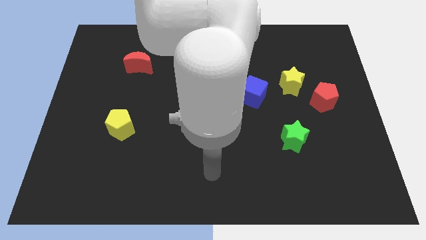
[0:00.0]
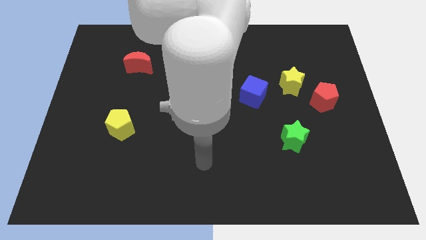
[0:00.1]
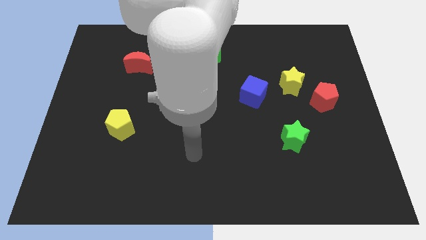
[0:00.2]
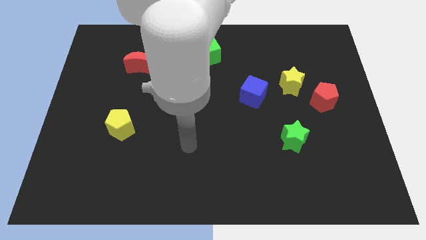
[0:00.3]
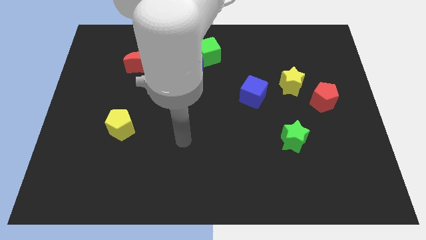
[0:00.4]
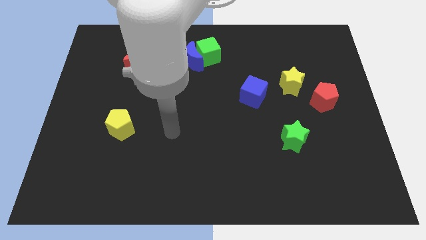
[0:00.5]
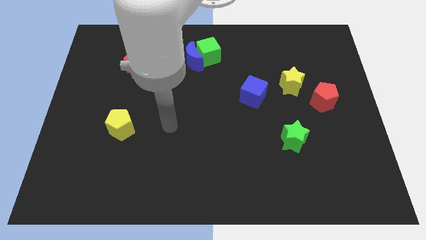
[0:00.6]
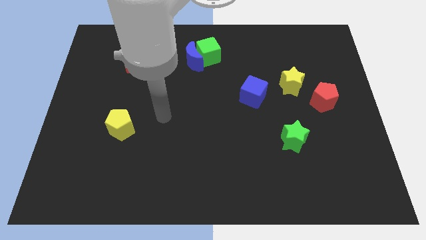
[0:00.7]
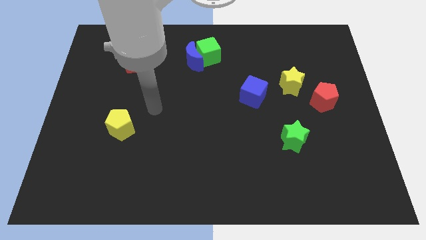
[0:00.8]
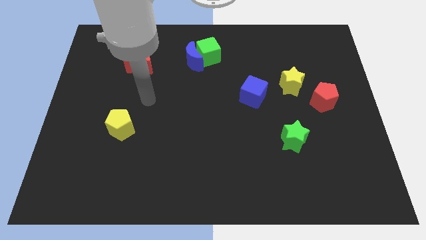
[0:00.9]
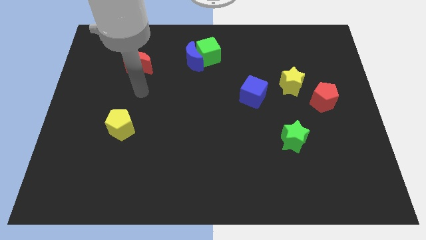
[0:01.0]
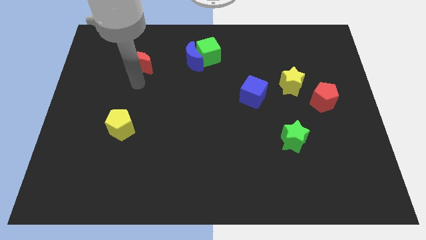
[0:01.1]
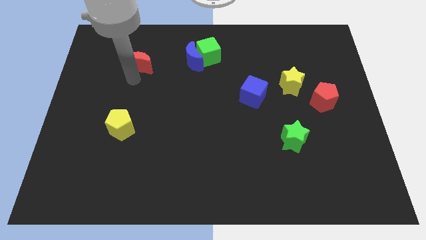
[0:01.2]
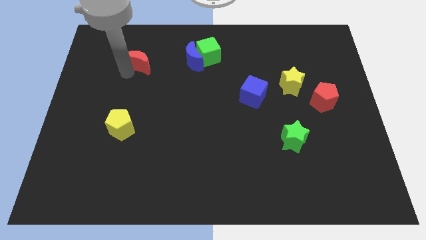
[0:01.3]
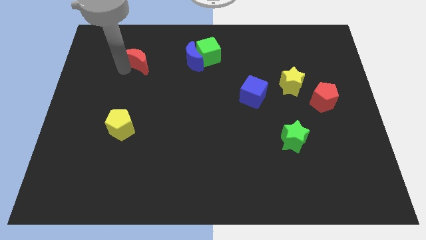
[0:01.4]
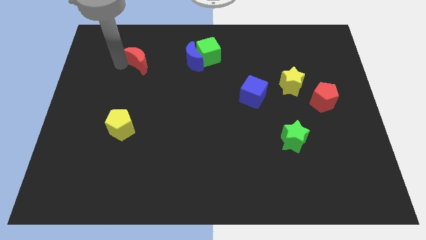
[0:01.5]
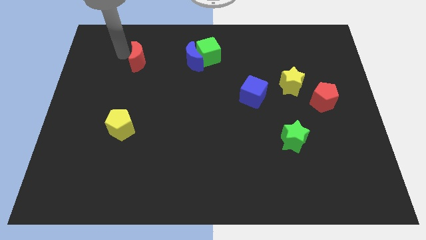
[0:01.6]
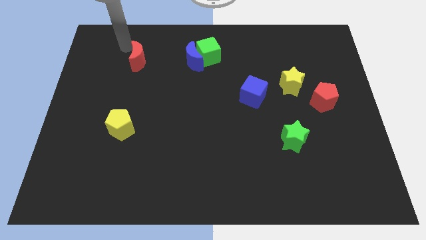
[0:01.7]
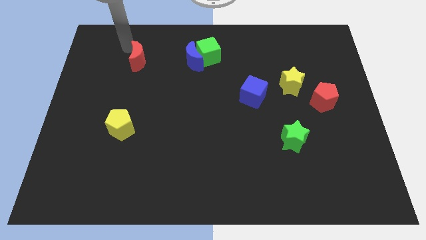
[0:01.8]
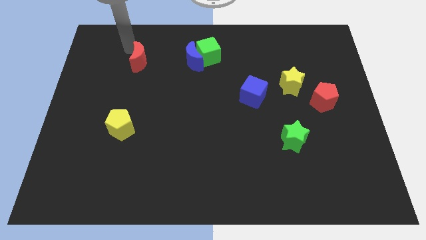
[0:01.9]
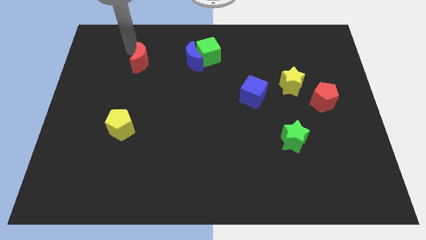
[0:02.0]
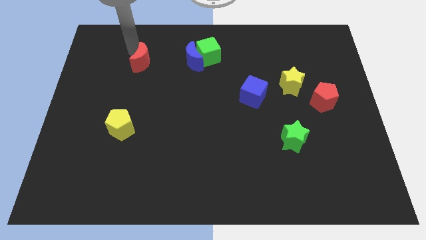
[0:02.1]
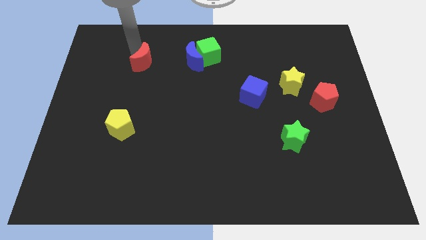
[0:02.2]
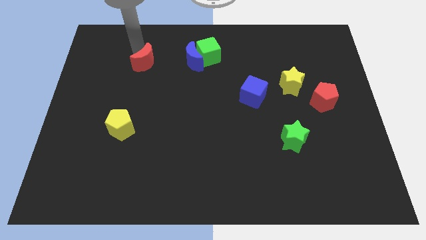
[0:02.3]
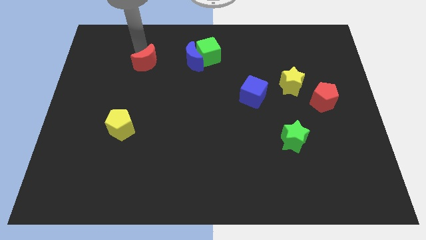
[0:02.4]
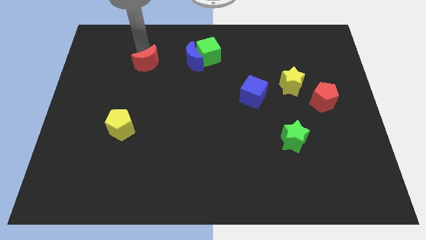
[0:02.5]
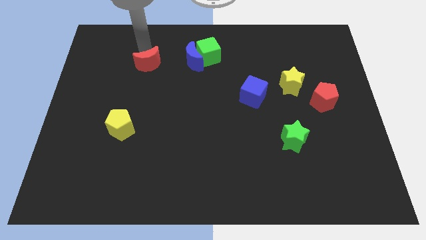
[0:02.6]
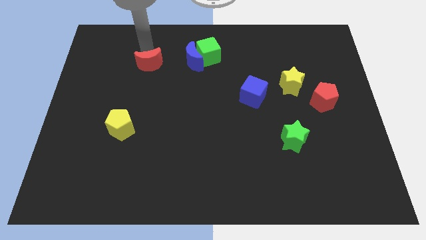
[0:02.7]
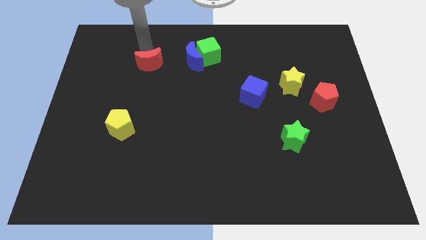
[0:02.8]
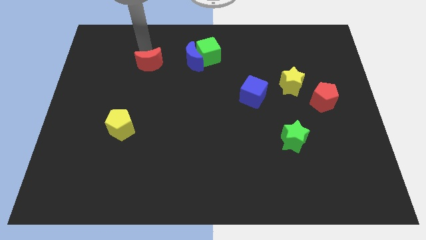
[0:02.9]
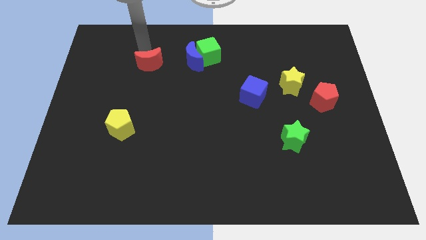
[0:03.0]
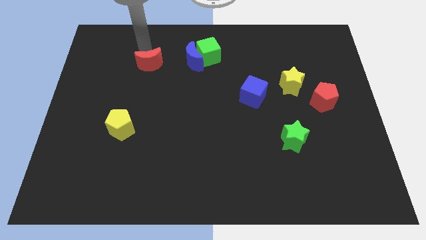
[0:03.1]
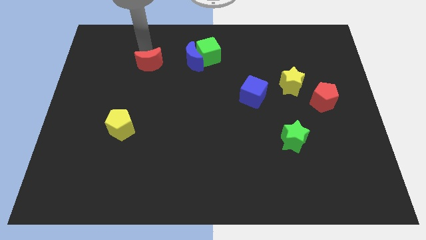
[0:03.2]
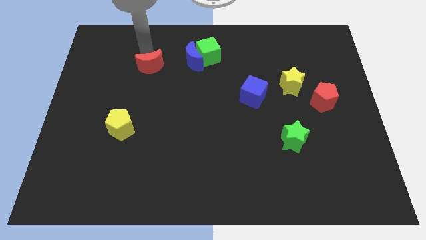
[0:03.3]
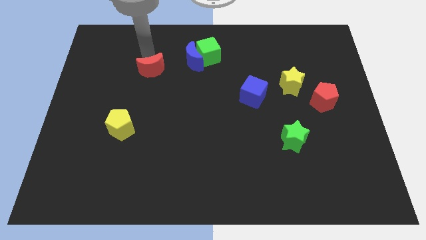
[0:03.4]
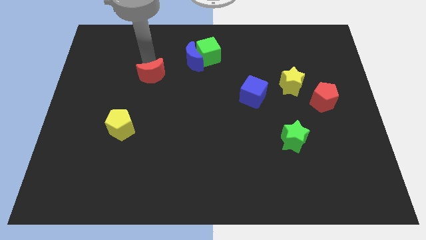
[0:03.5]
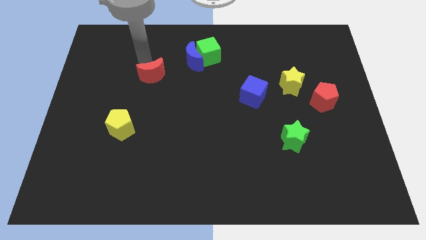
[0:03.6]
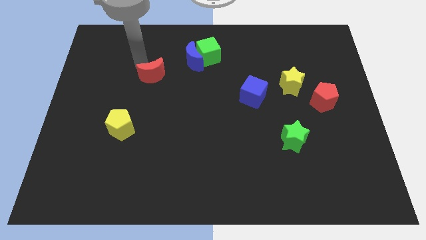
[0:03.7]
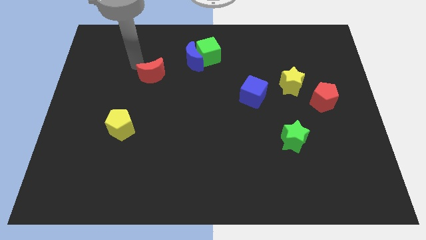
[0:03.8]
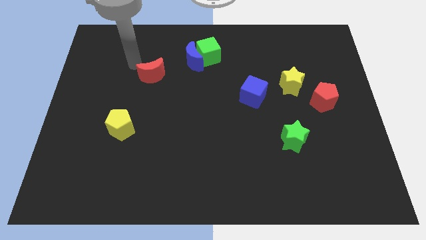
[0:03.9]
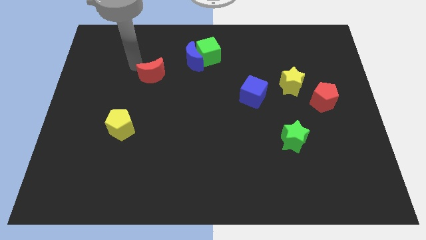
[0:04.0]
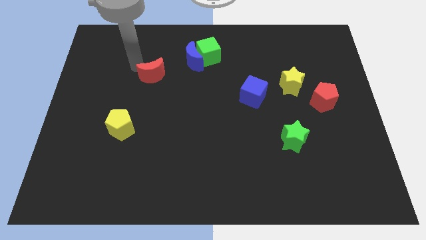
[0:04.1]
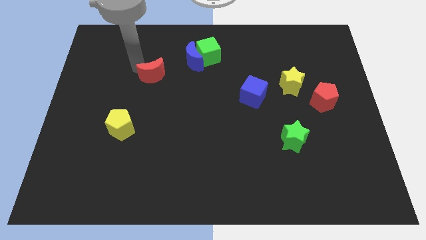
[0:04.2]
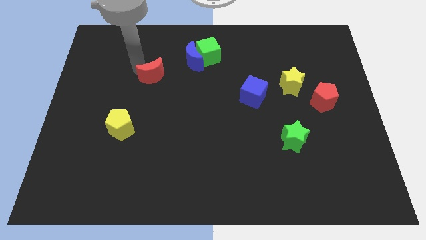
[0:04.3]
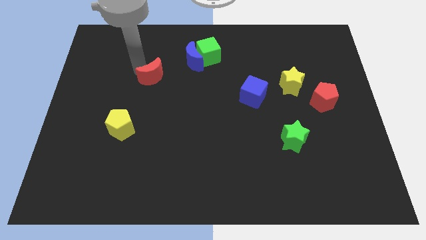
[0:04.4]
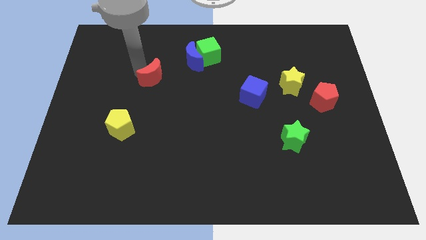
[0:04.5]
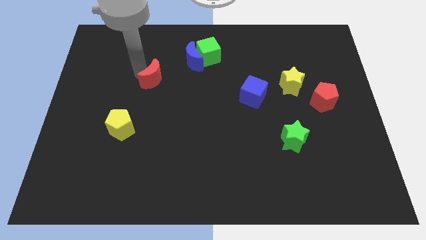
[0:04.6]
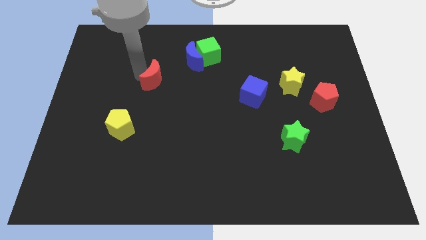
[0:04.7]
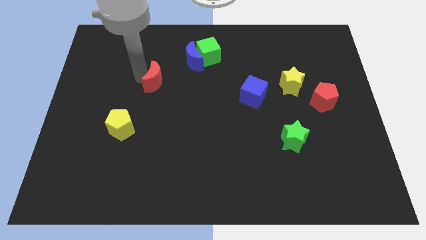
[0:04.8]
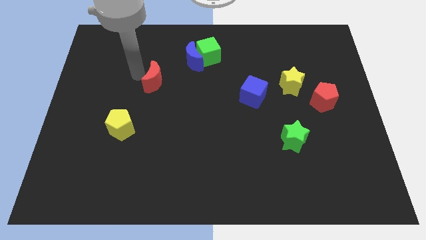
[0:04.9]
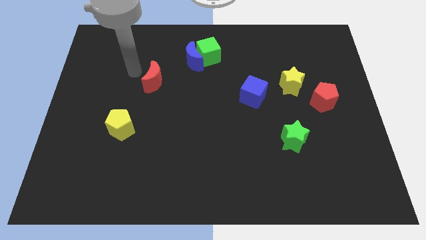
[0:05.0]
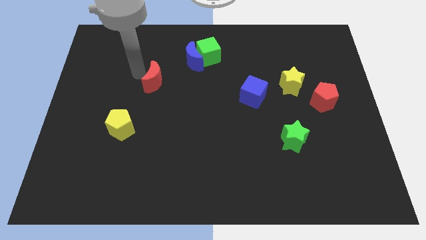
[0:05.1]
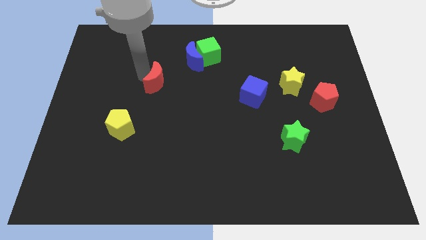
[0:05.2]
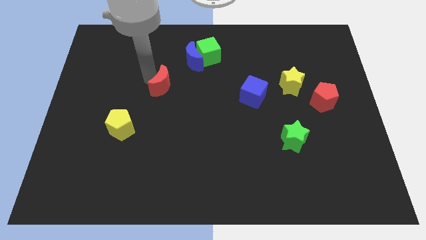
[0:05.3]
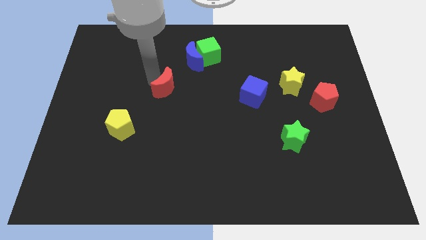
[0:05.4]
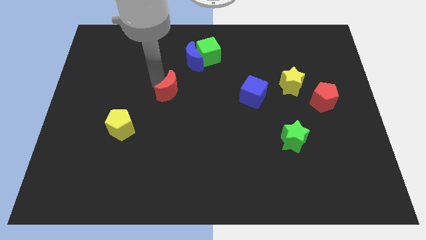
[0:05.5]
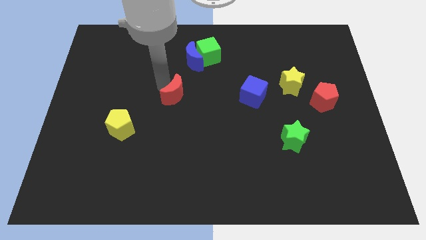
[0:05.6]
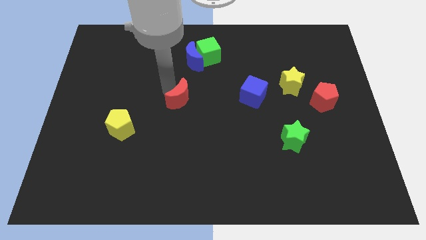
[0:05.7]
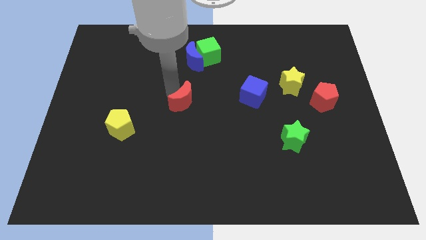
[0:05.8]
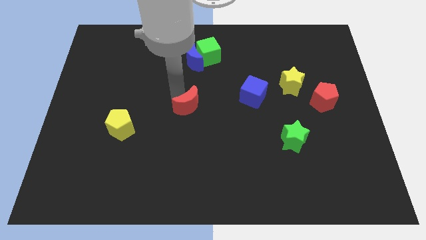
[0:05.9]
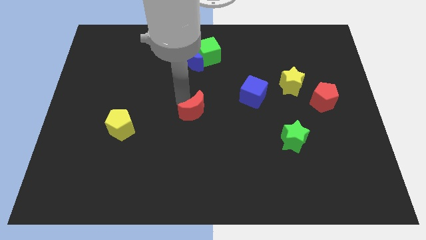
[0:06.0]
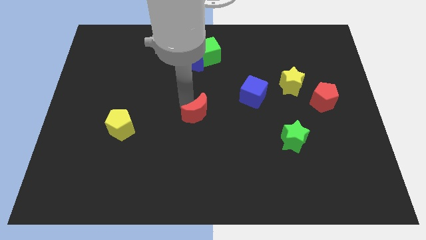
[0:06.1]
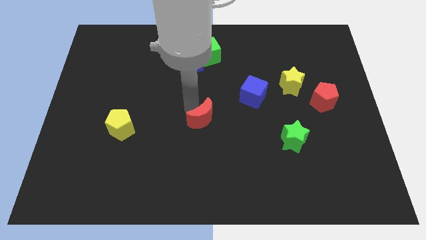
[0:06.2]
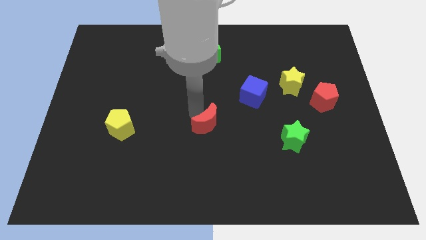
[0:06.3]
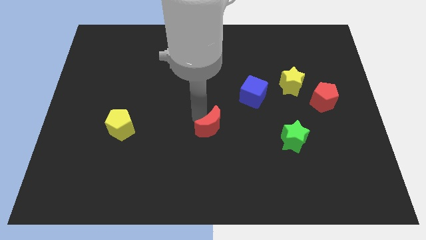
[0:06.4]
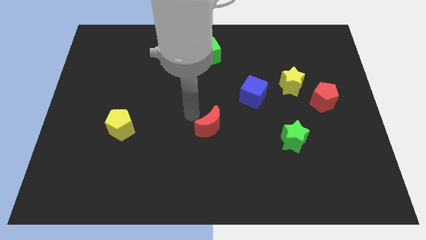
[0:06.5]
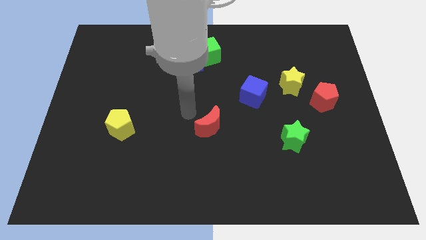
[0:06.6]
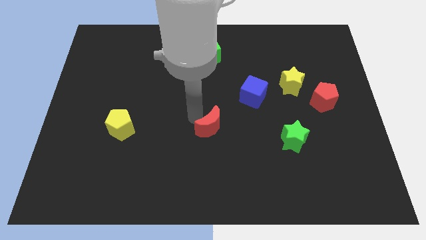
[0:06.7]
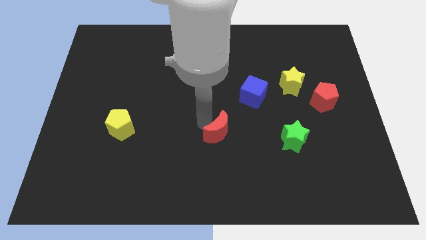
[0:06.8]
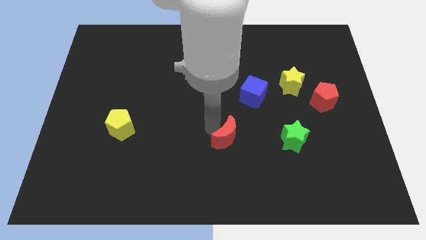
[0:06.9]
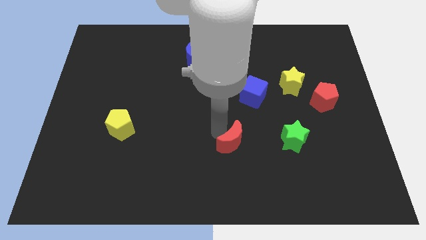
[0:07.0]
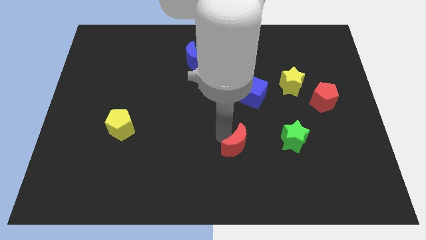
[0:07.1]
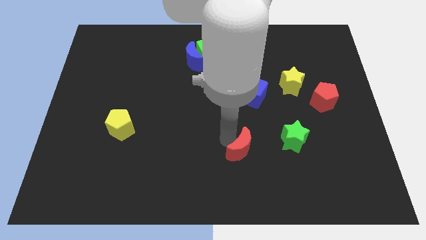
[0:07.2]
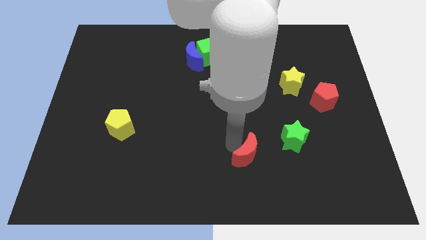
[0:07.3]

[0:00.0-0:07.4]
move the red moon to the bottom left side of the green star

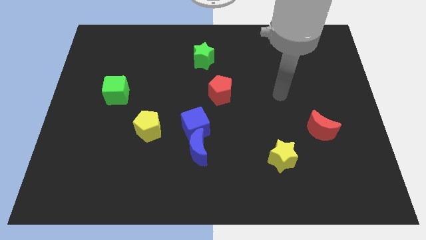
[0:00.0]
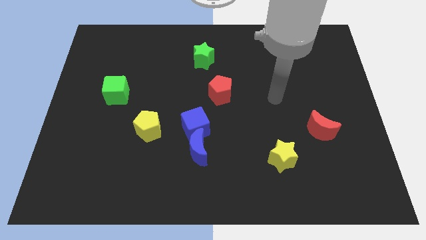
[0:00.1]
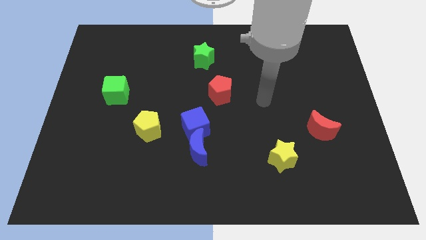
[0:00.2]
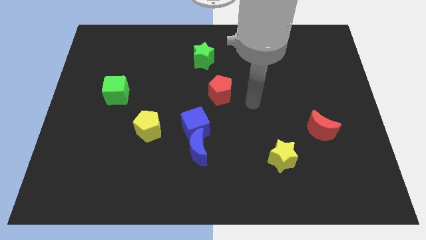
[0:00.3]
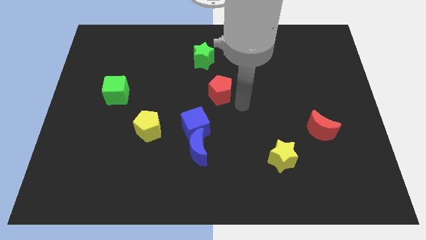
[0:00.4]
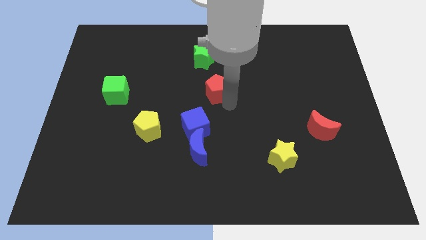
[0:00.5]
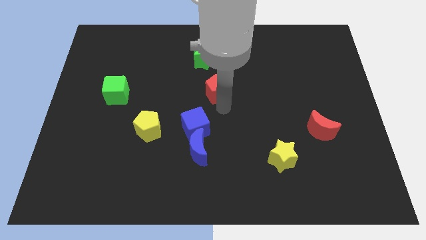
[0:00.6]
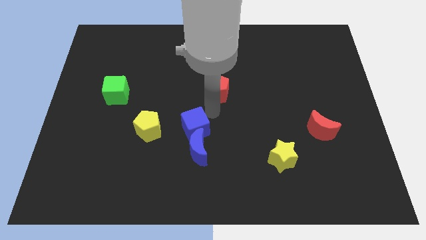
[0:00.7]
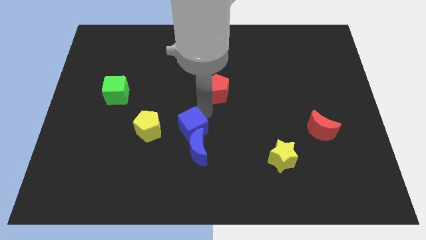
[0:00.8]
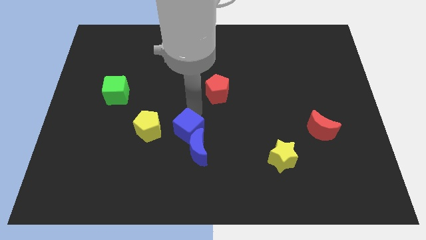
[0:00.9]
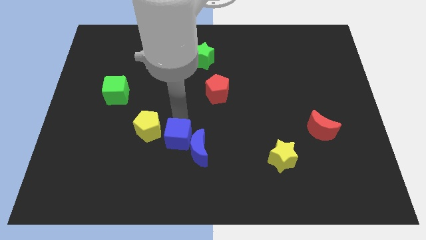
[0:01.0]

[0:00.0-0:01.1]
move the yellow pentagon diagonally up and to the left of the blue cube
